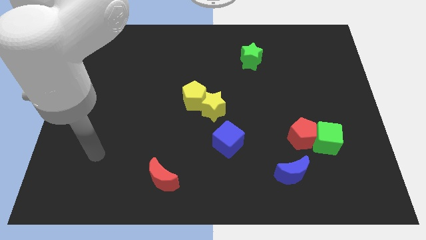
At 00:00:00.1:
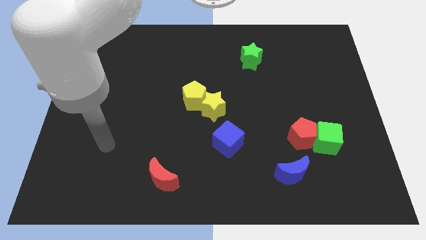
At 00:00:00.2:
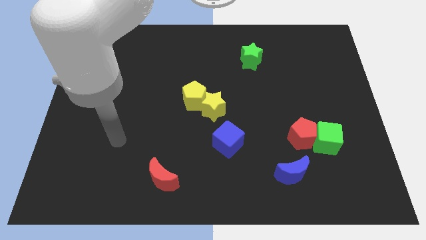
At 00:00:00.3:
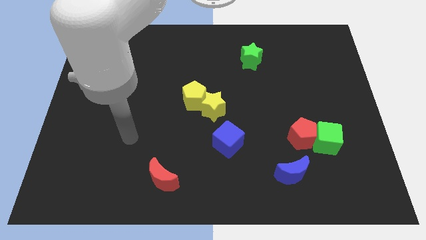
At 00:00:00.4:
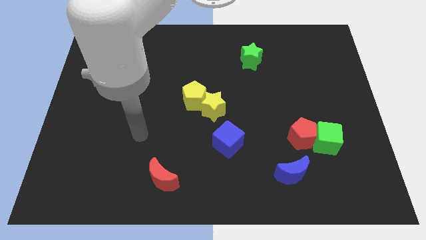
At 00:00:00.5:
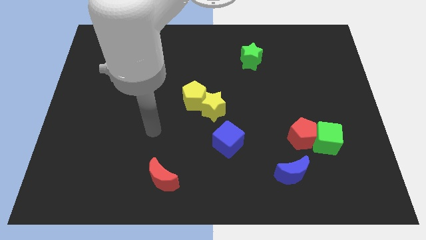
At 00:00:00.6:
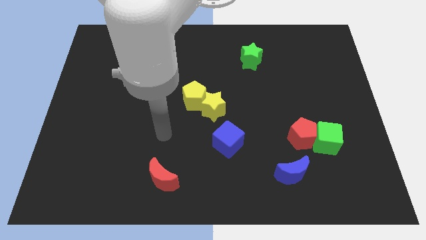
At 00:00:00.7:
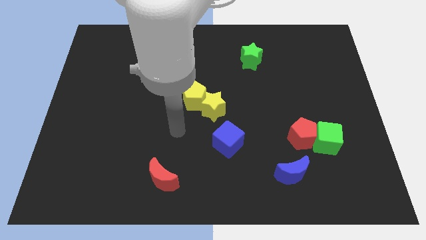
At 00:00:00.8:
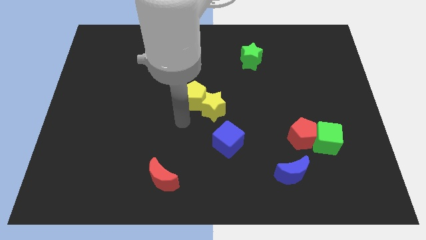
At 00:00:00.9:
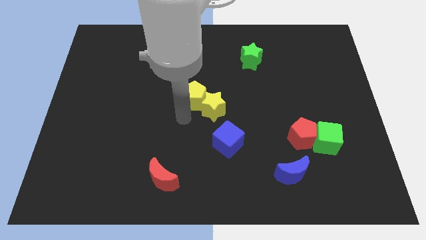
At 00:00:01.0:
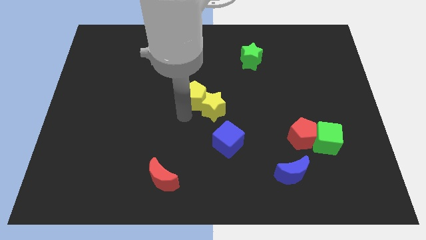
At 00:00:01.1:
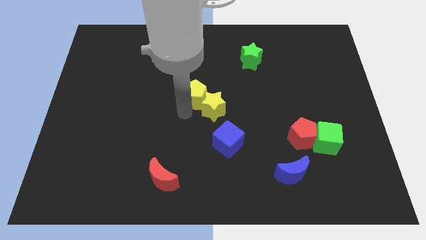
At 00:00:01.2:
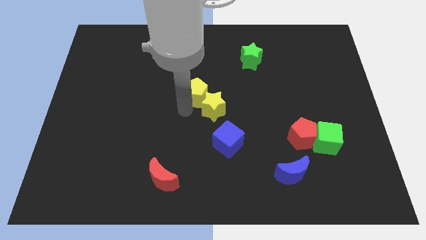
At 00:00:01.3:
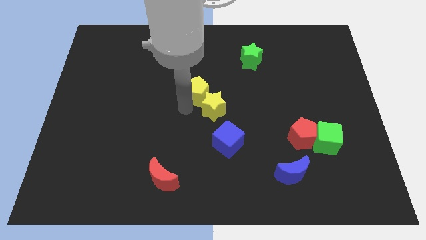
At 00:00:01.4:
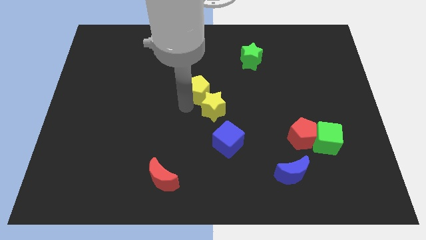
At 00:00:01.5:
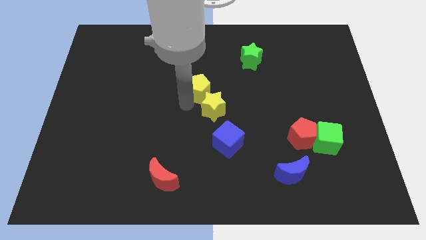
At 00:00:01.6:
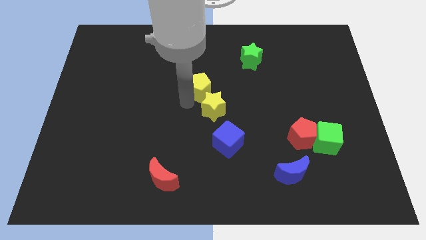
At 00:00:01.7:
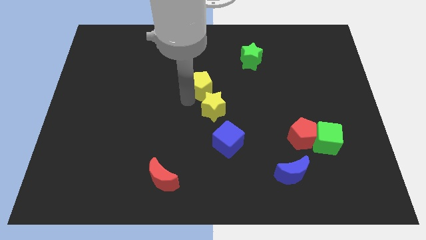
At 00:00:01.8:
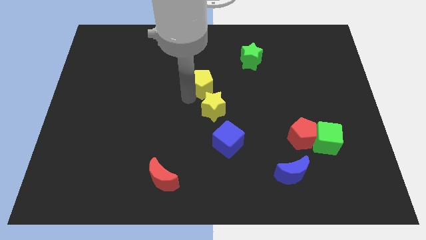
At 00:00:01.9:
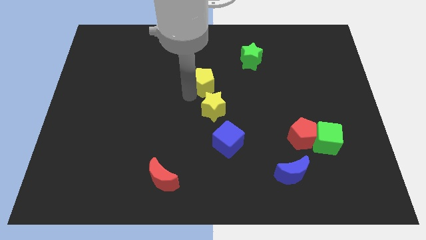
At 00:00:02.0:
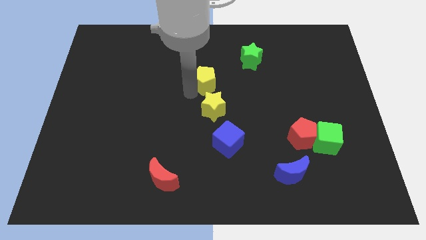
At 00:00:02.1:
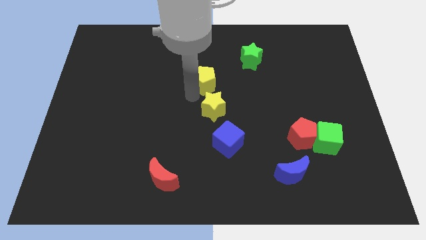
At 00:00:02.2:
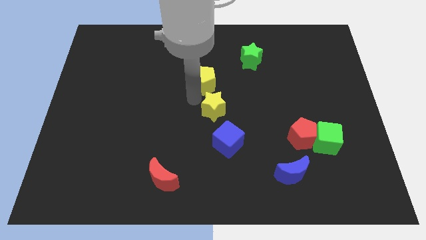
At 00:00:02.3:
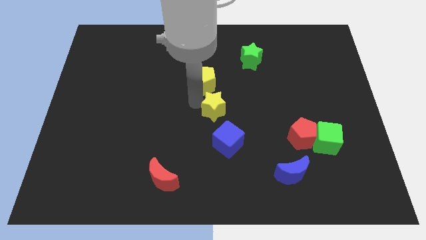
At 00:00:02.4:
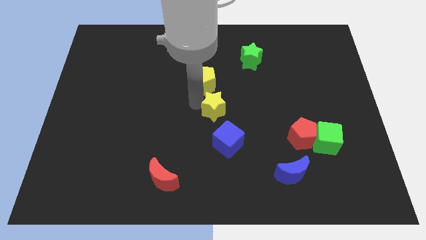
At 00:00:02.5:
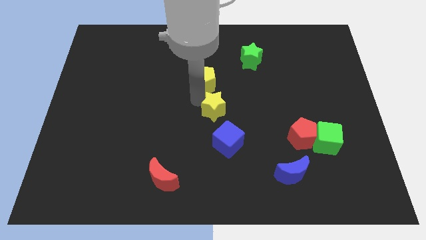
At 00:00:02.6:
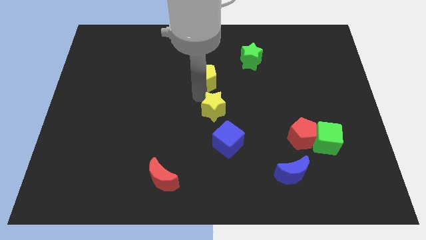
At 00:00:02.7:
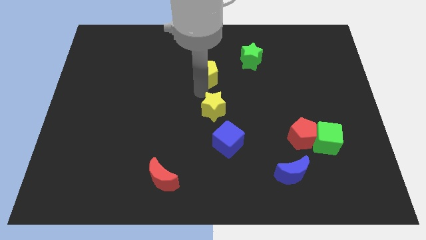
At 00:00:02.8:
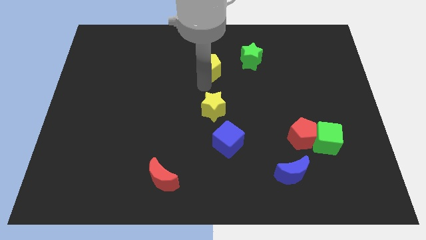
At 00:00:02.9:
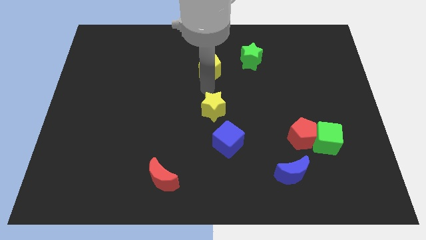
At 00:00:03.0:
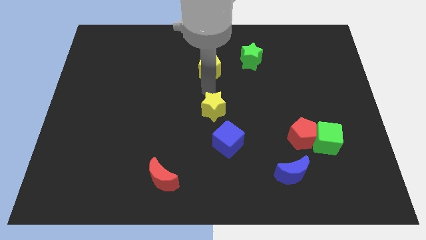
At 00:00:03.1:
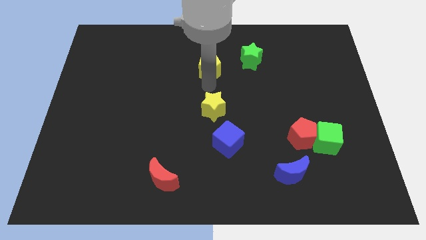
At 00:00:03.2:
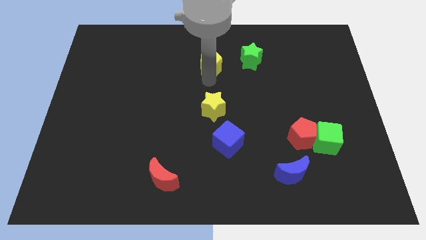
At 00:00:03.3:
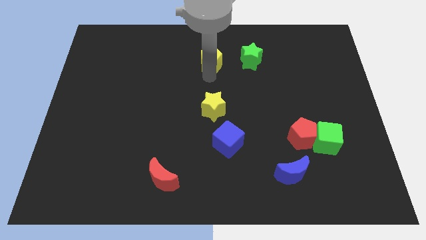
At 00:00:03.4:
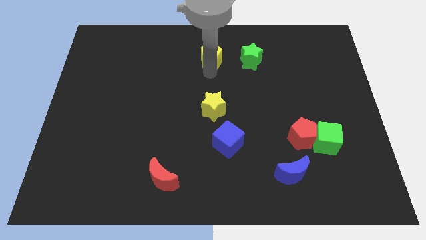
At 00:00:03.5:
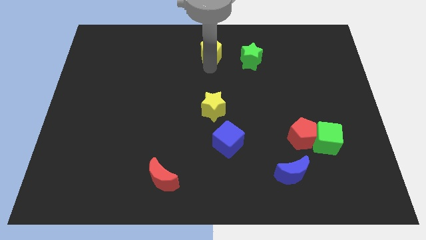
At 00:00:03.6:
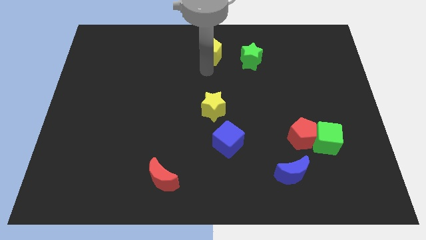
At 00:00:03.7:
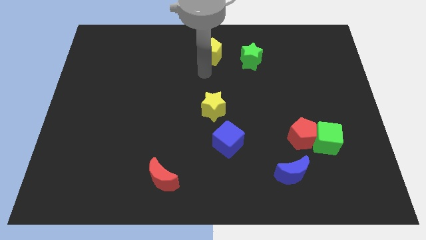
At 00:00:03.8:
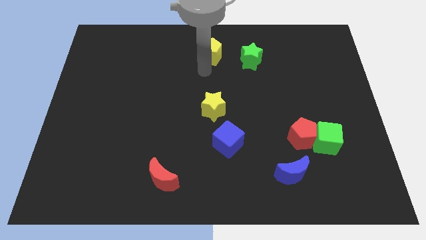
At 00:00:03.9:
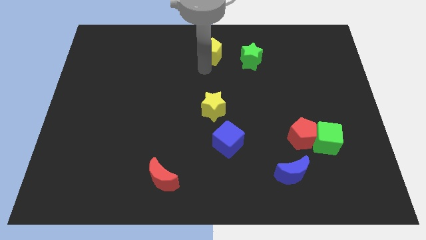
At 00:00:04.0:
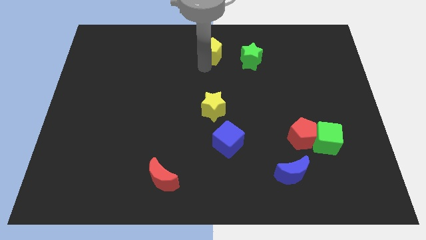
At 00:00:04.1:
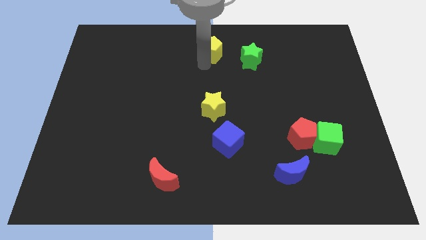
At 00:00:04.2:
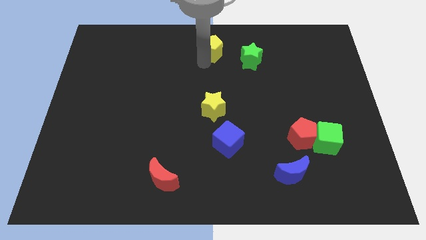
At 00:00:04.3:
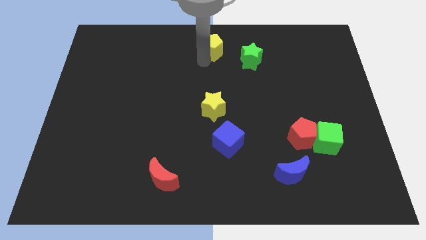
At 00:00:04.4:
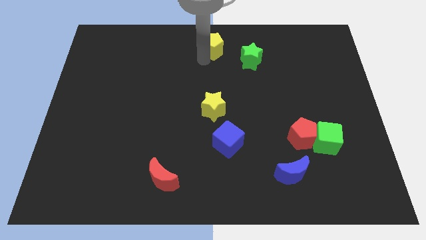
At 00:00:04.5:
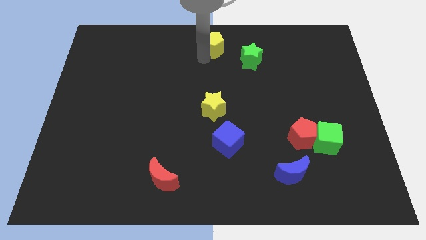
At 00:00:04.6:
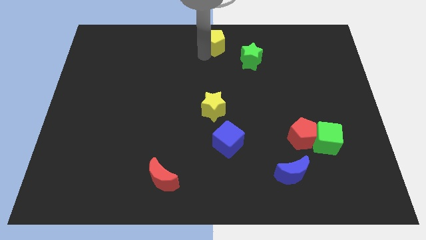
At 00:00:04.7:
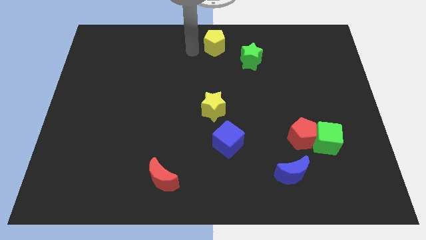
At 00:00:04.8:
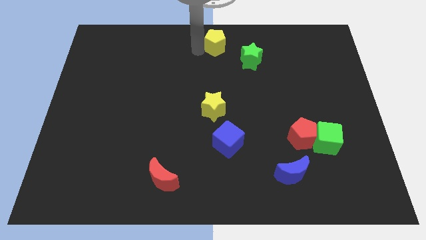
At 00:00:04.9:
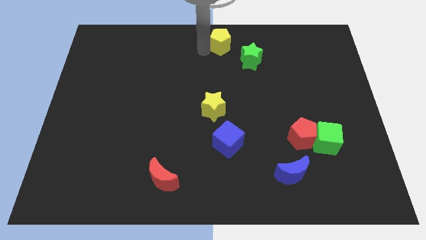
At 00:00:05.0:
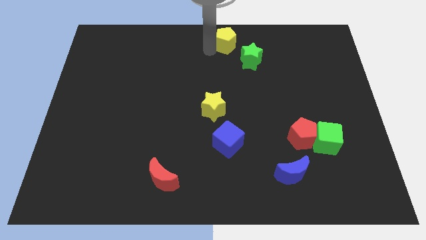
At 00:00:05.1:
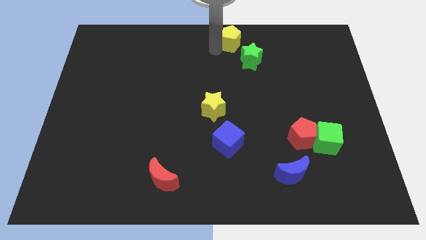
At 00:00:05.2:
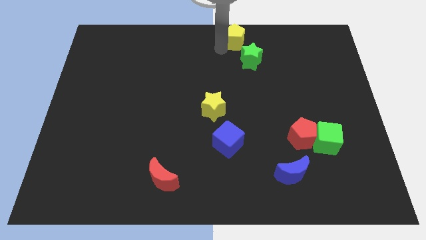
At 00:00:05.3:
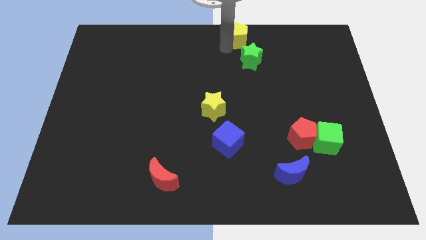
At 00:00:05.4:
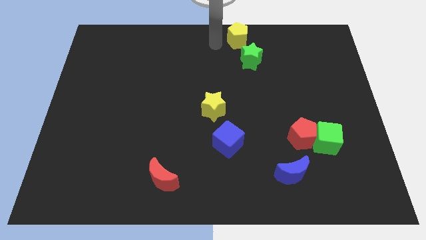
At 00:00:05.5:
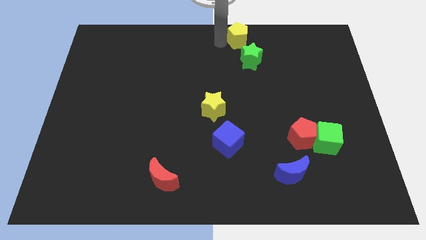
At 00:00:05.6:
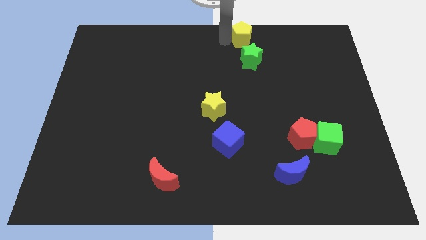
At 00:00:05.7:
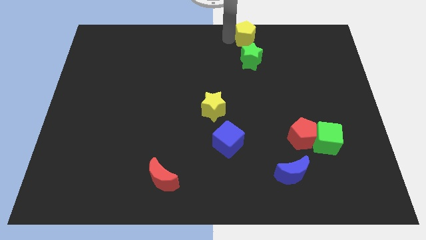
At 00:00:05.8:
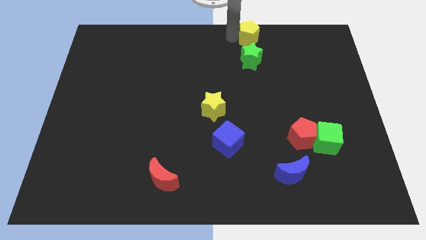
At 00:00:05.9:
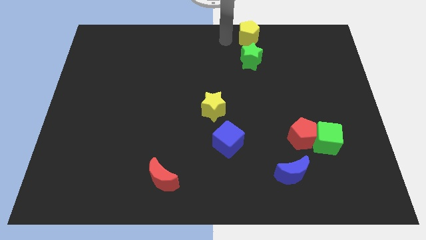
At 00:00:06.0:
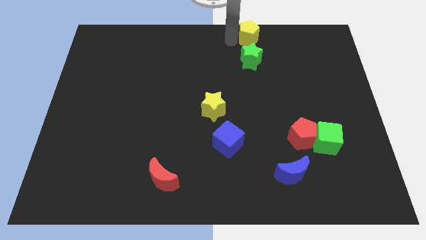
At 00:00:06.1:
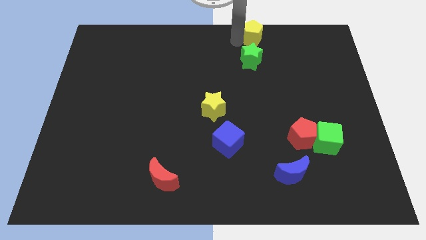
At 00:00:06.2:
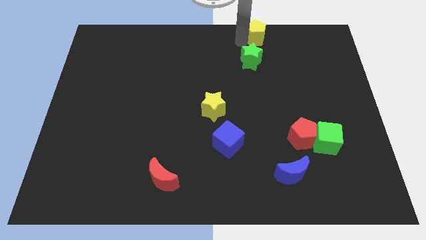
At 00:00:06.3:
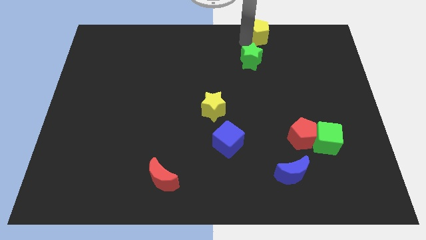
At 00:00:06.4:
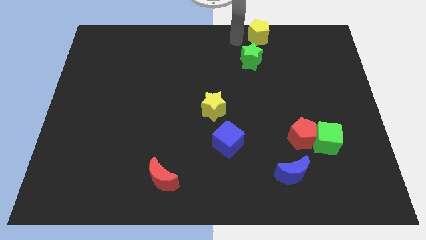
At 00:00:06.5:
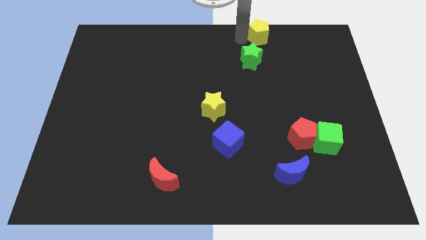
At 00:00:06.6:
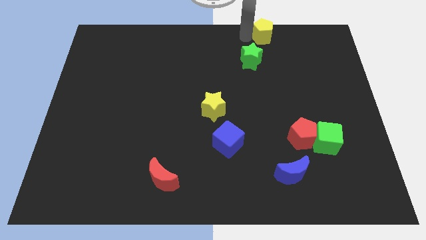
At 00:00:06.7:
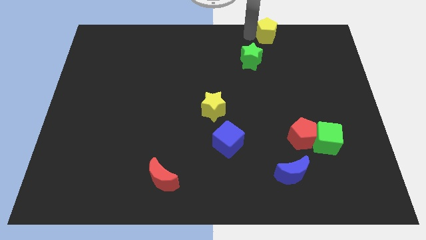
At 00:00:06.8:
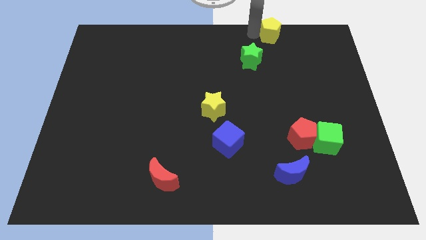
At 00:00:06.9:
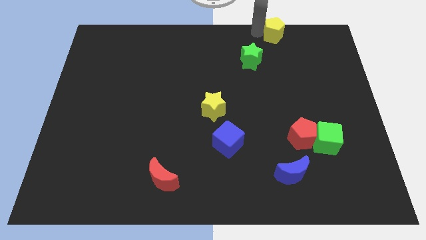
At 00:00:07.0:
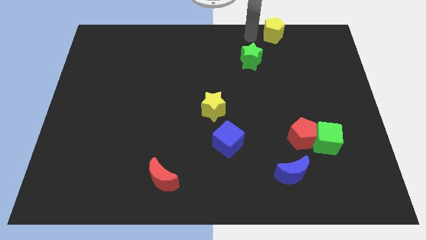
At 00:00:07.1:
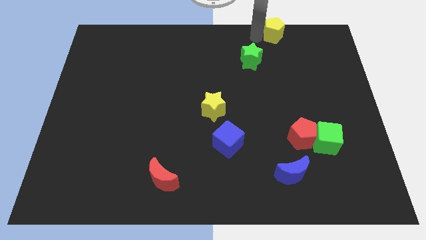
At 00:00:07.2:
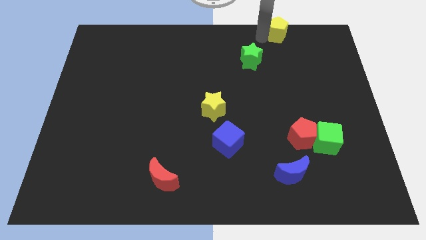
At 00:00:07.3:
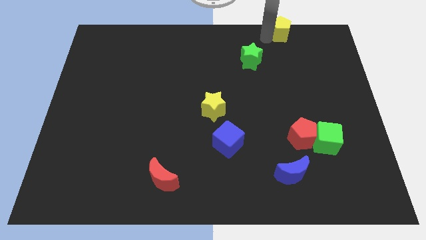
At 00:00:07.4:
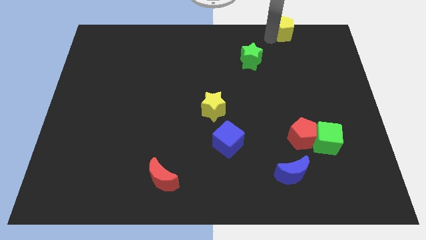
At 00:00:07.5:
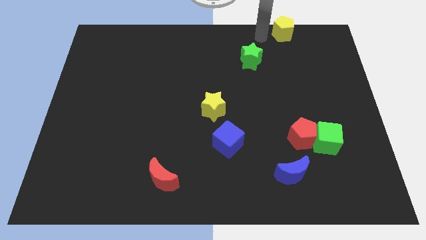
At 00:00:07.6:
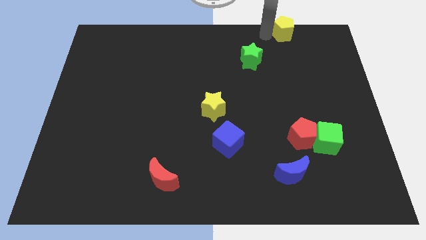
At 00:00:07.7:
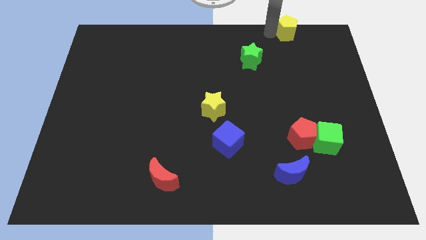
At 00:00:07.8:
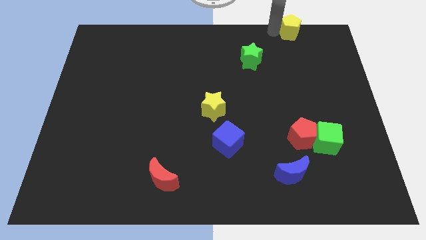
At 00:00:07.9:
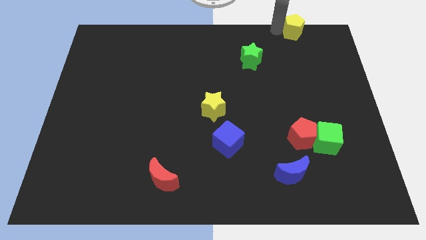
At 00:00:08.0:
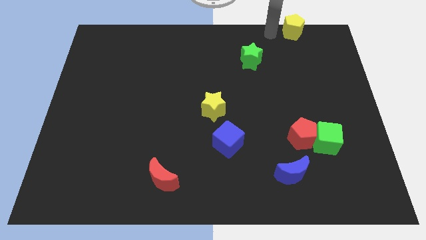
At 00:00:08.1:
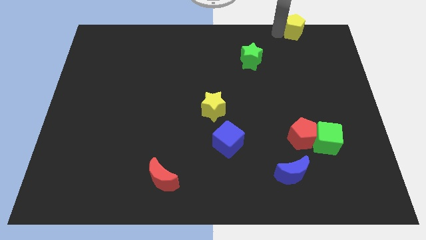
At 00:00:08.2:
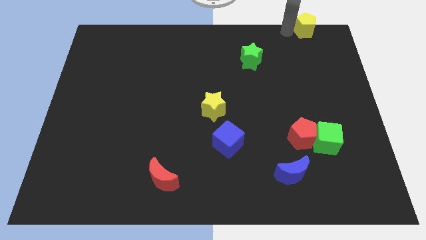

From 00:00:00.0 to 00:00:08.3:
push the yellow pentagon to the upper right corner
